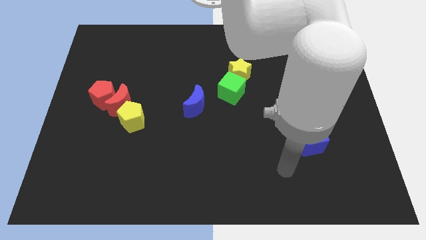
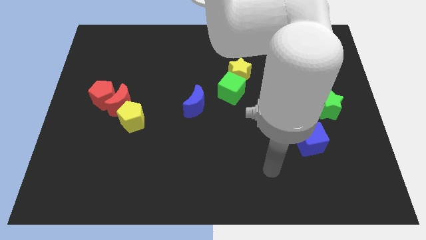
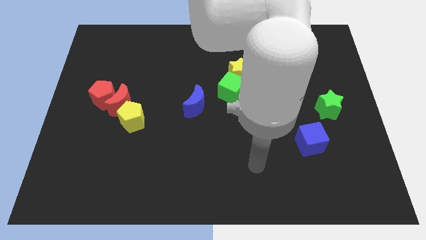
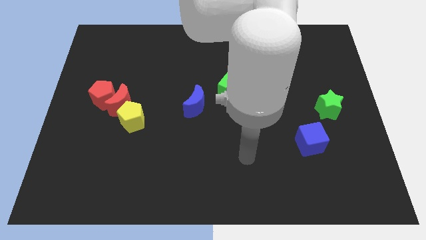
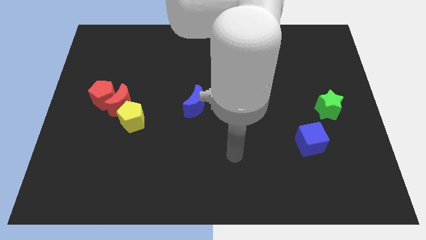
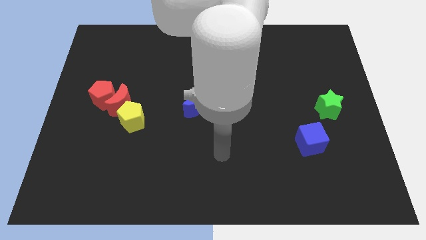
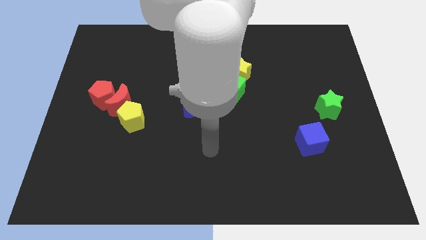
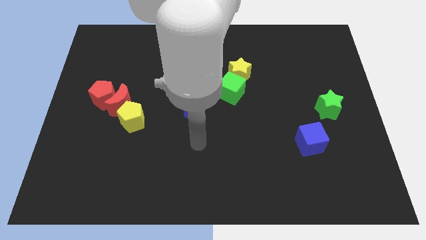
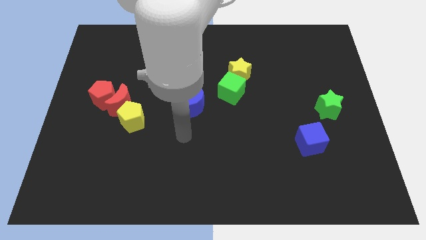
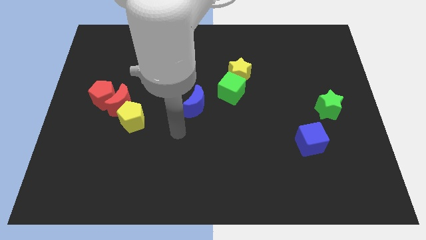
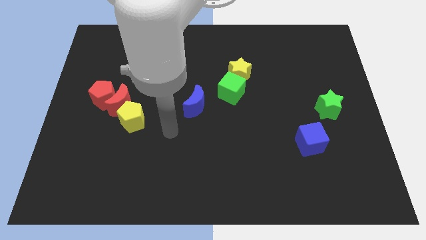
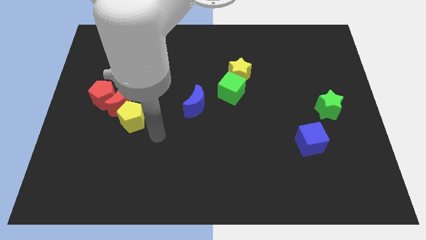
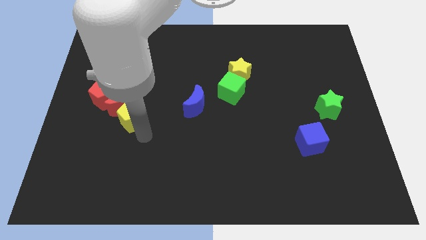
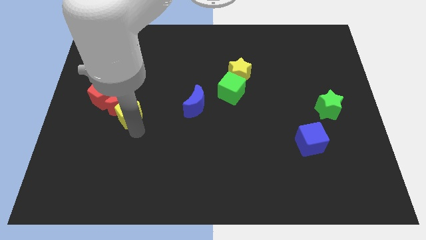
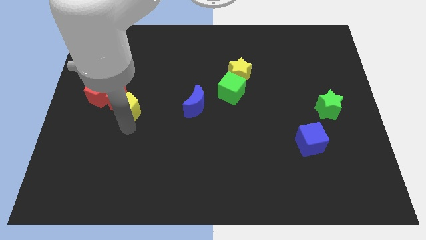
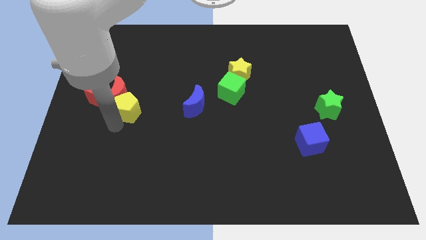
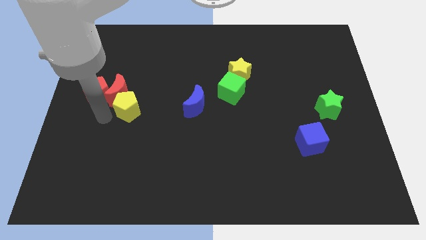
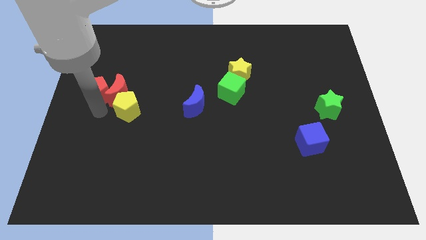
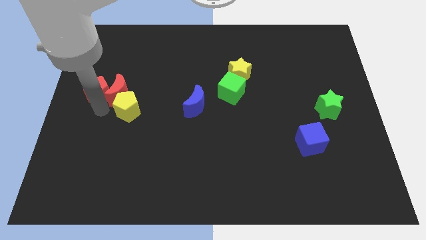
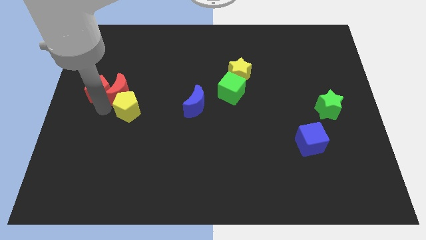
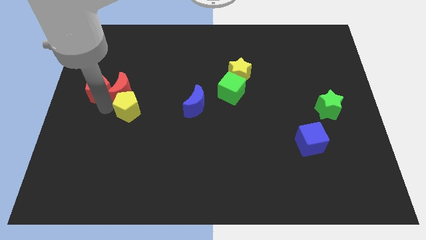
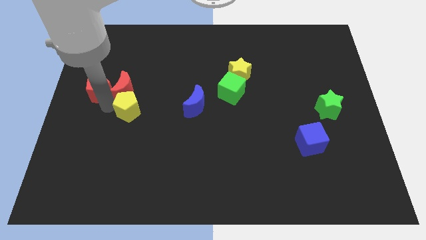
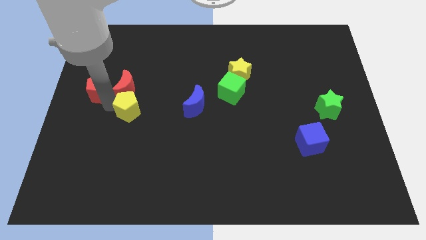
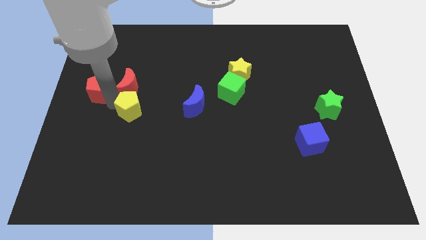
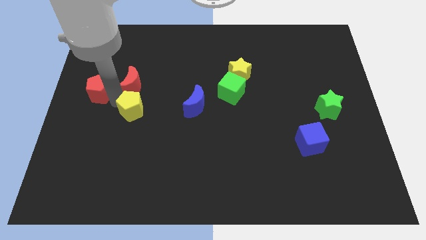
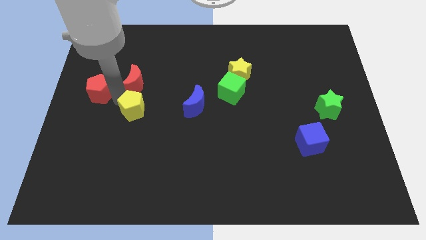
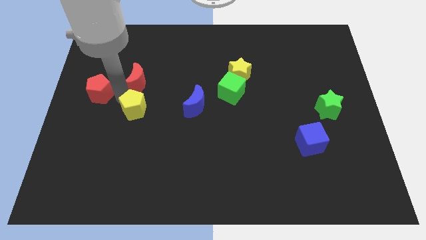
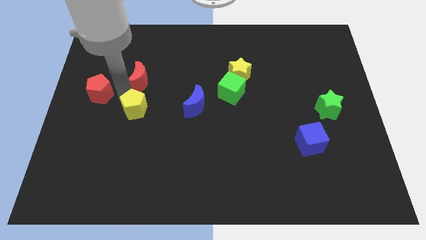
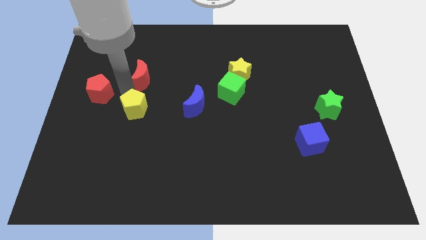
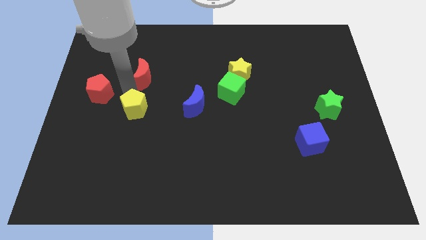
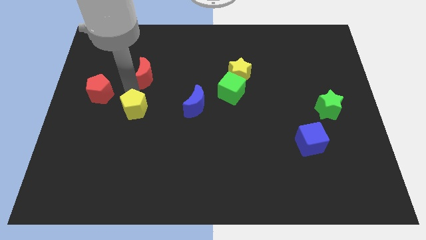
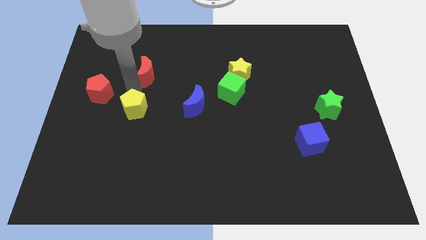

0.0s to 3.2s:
move the red moon away from the red pentagon and yellow pentagon

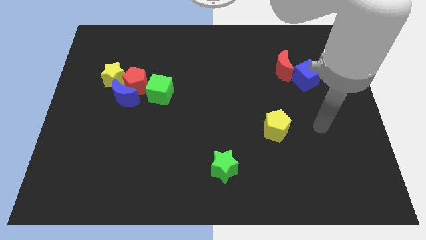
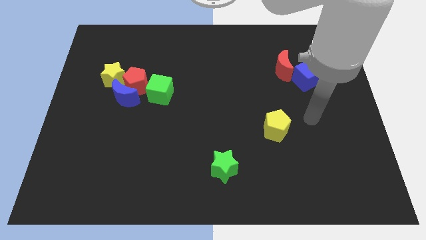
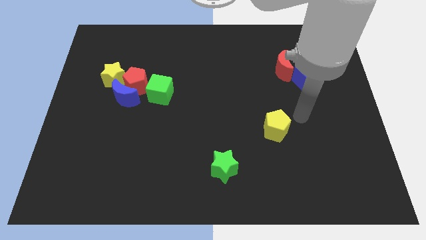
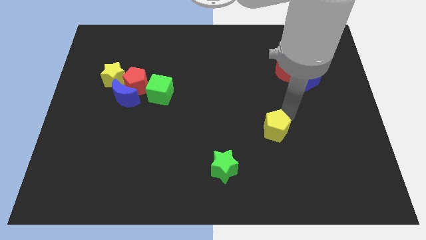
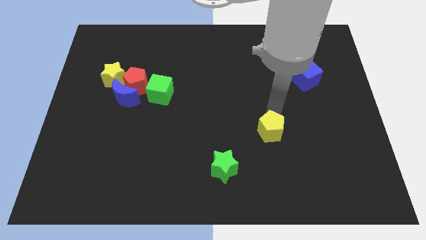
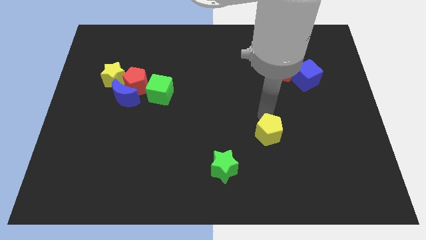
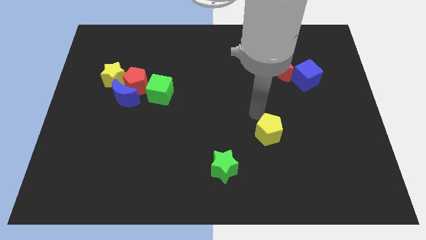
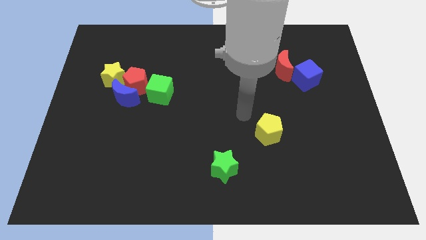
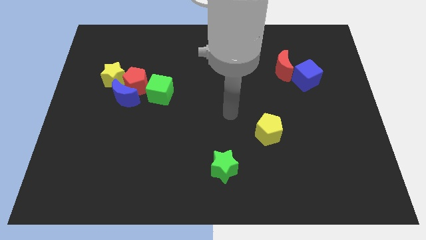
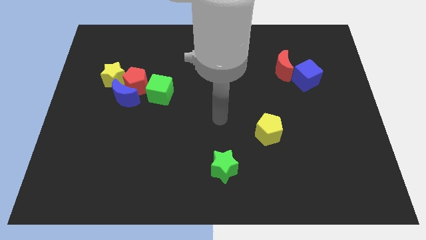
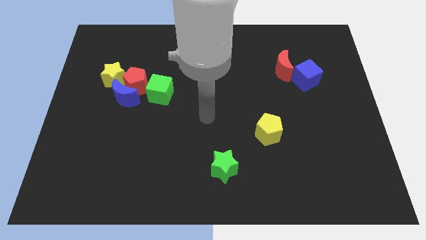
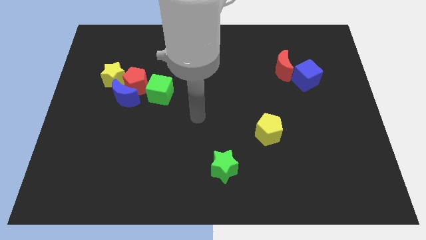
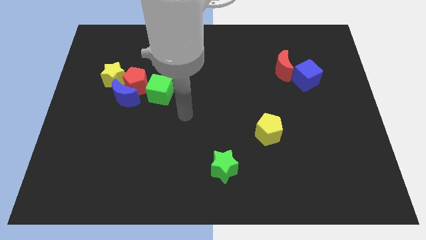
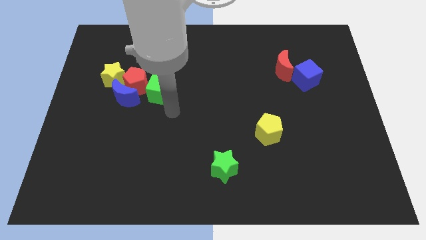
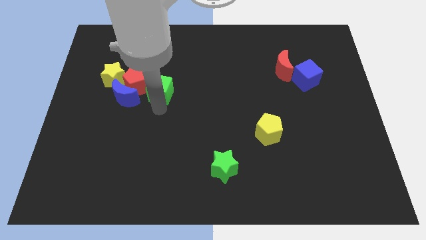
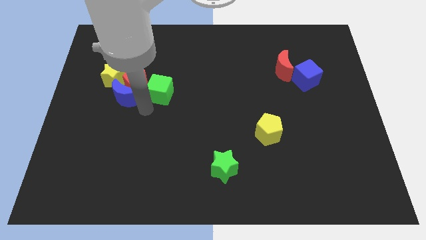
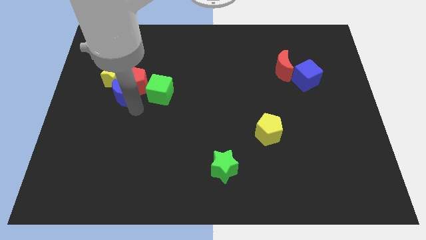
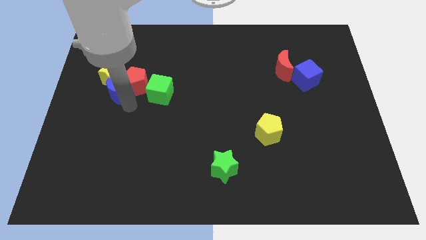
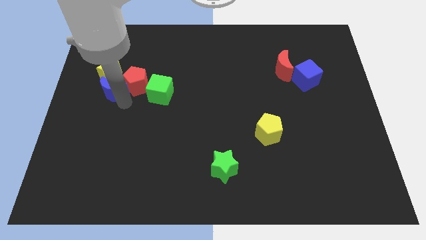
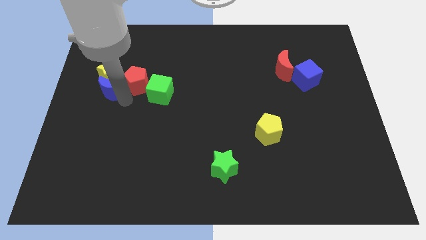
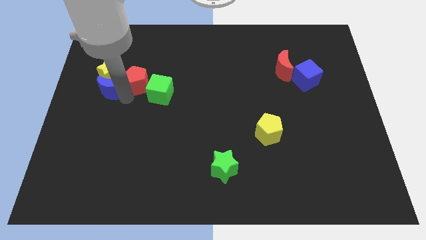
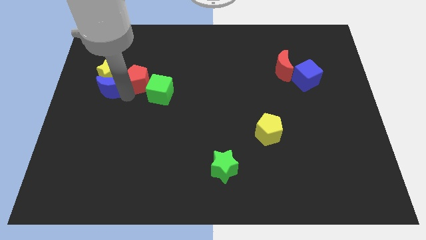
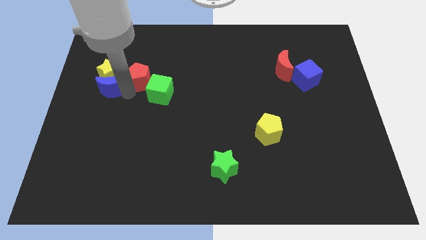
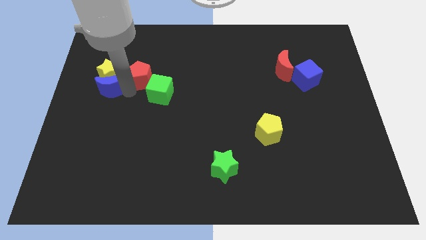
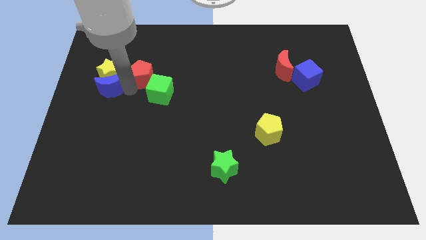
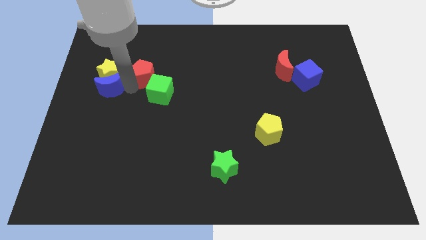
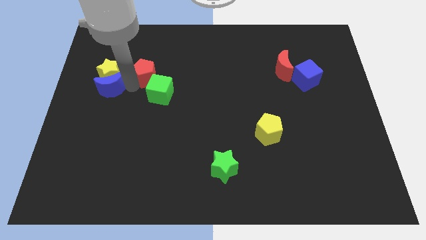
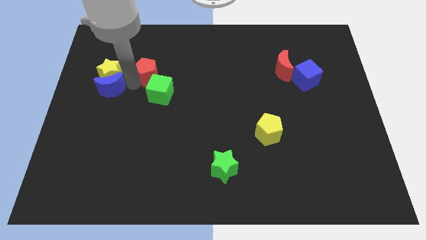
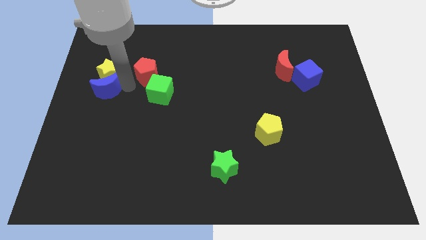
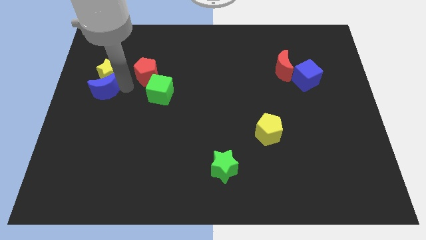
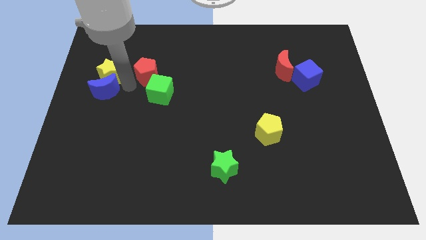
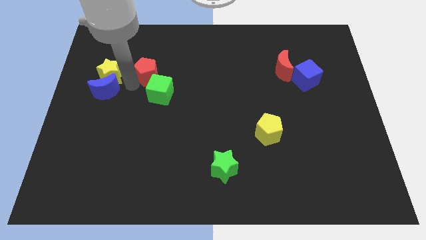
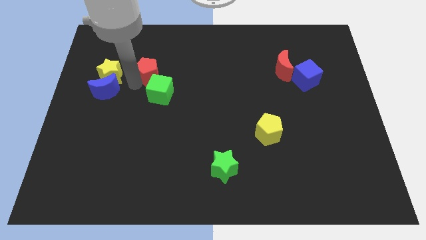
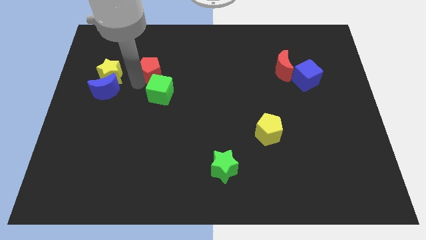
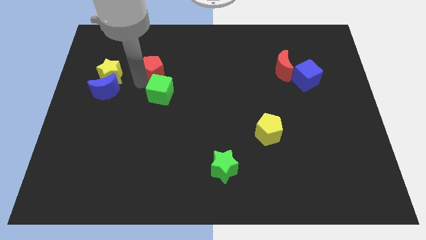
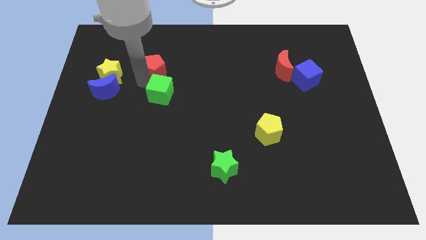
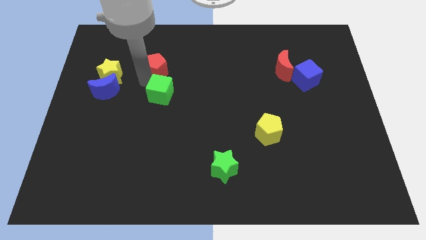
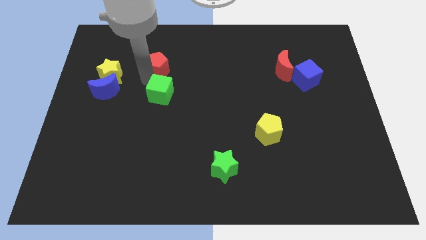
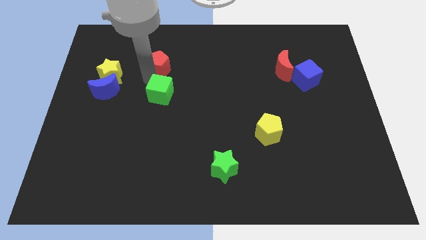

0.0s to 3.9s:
pull the red pentagon apart from the blue moon, yellow star, and green cube

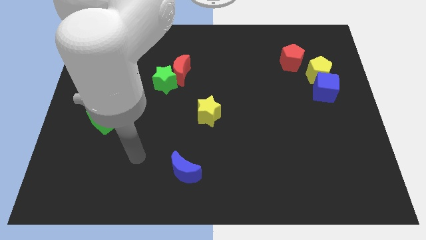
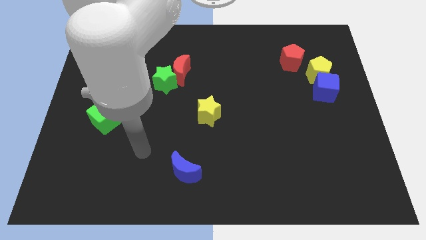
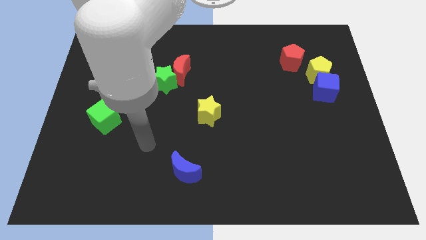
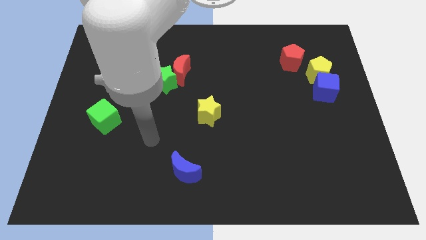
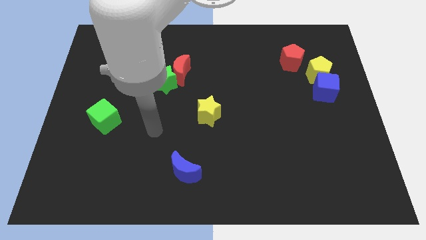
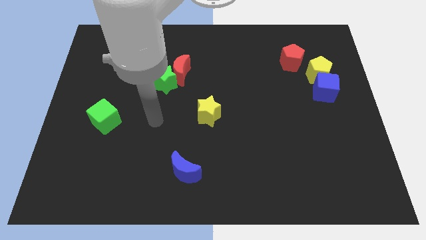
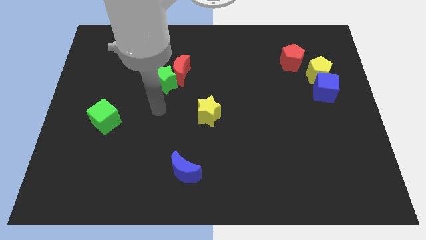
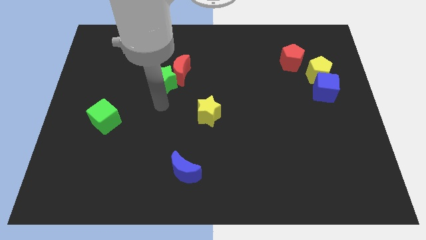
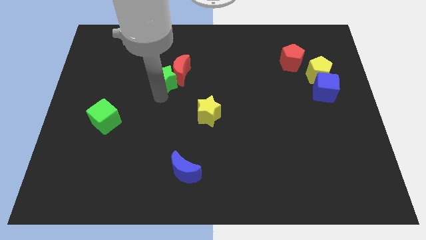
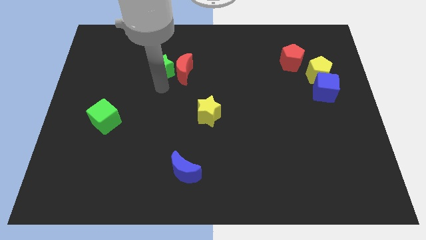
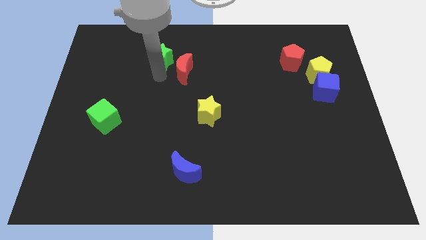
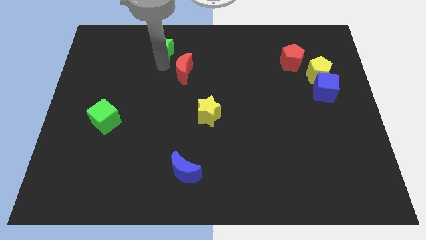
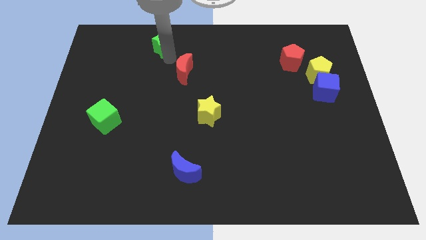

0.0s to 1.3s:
pull the red moon apart from the green star

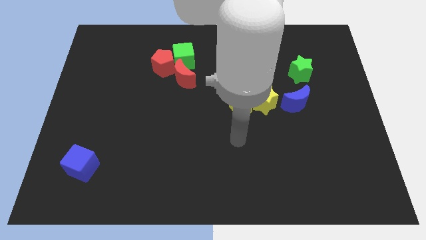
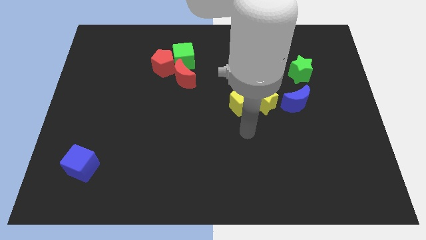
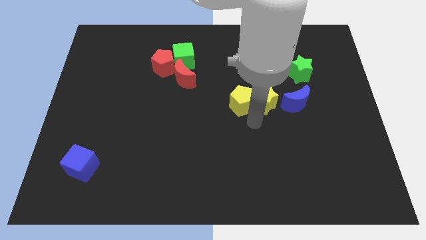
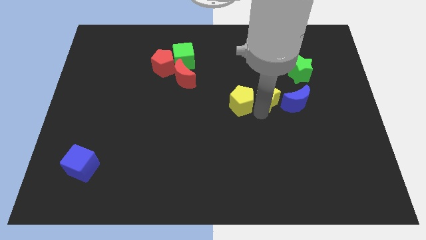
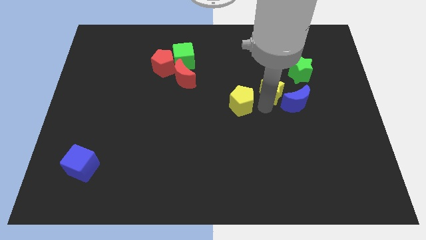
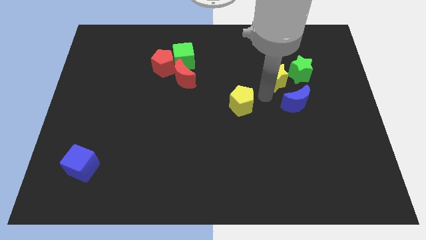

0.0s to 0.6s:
move the yellow pentagon away from the yellow star

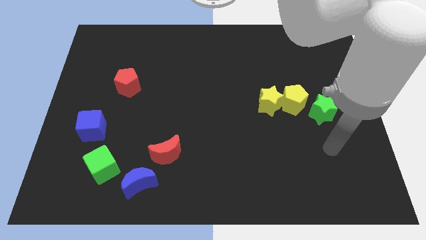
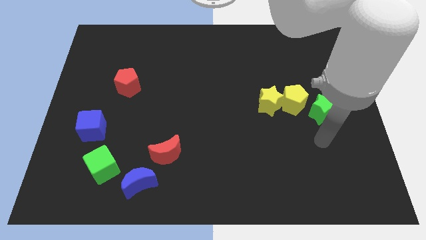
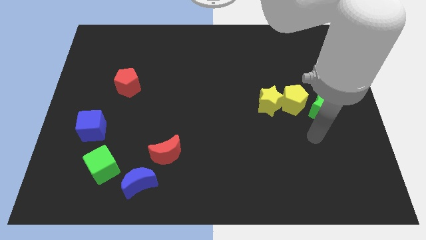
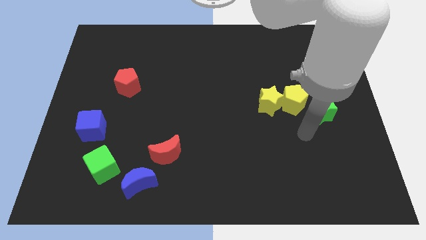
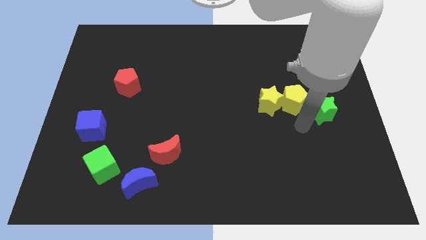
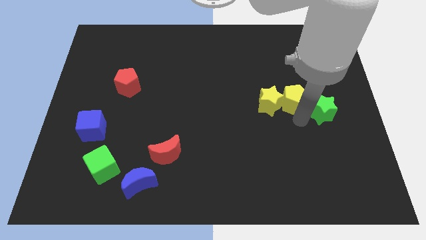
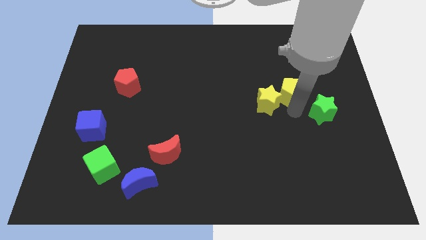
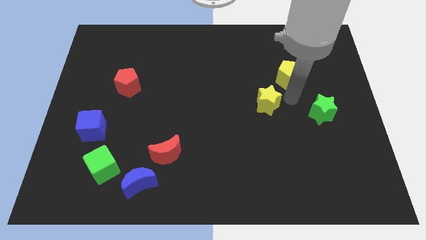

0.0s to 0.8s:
separate the yellow star from the yellow pentagon
